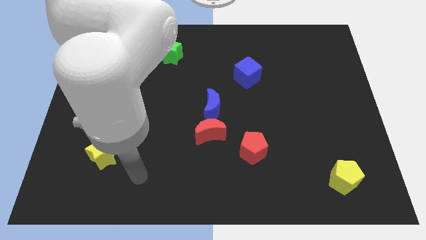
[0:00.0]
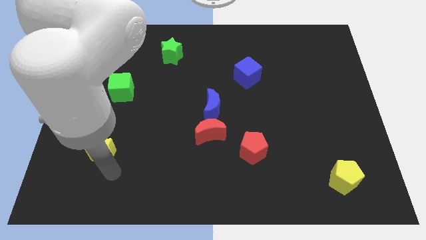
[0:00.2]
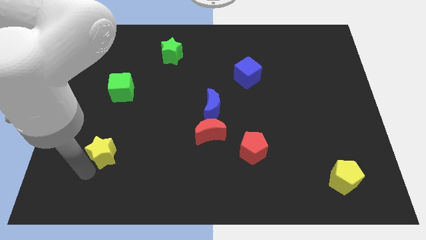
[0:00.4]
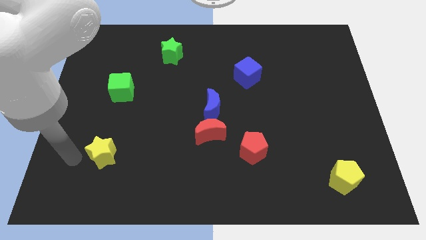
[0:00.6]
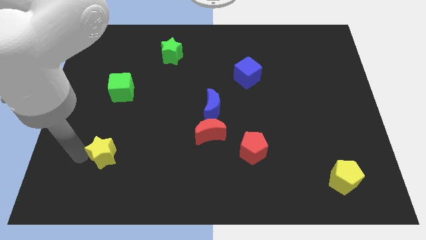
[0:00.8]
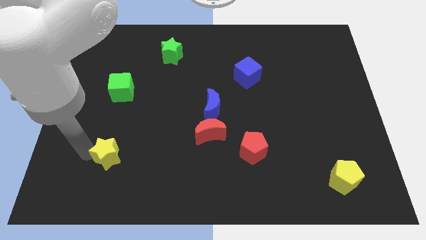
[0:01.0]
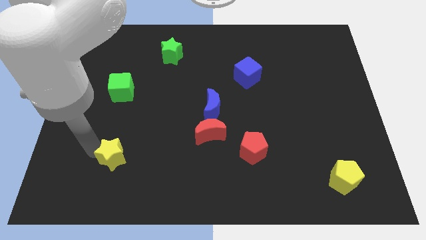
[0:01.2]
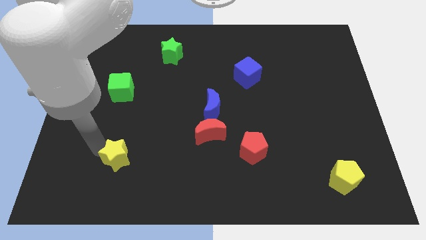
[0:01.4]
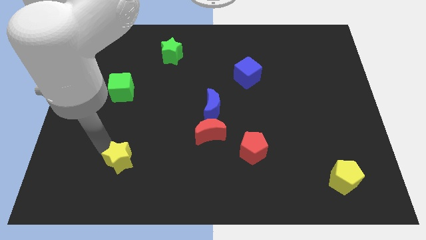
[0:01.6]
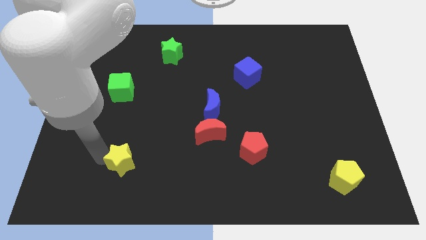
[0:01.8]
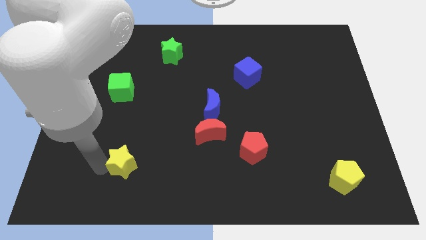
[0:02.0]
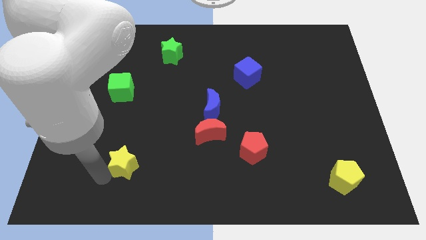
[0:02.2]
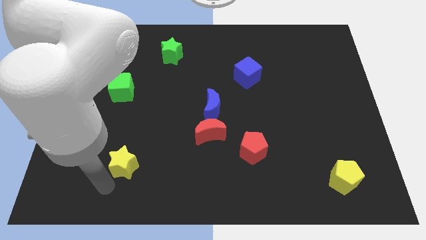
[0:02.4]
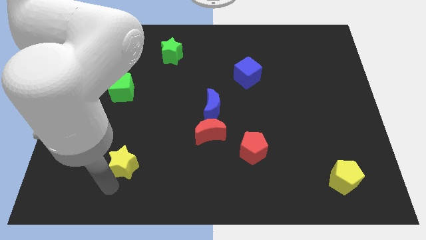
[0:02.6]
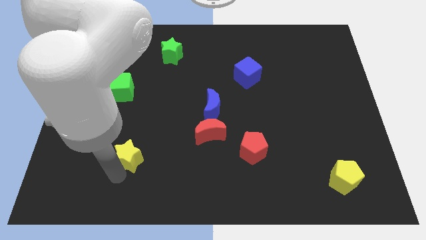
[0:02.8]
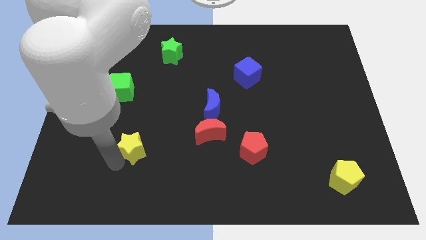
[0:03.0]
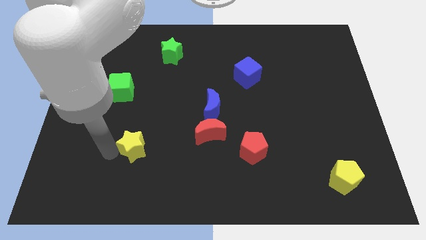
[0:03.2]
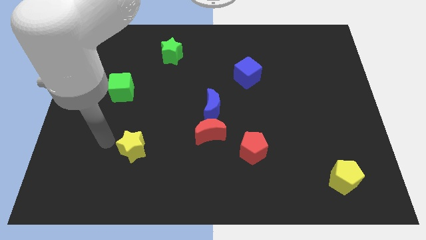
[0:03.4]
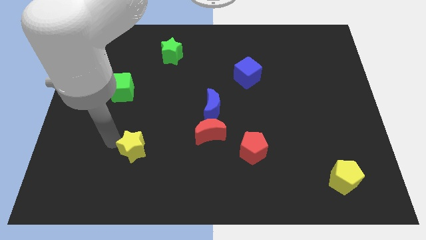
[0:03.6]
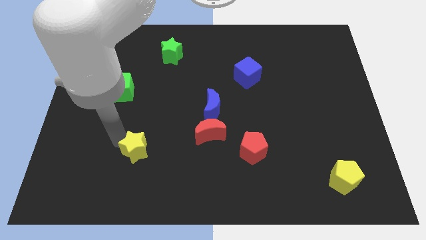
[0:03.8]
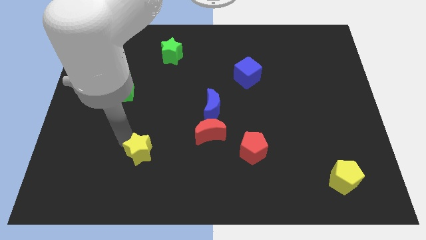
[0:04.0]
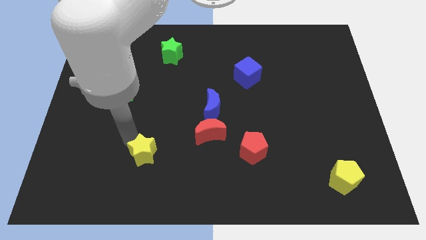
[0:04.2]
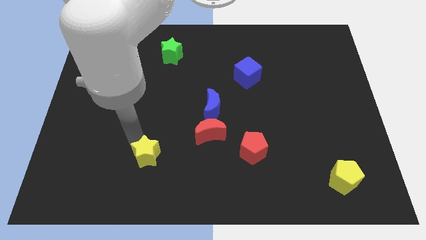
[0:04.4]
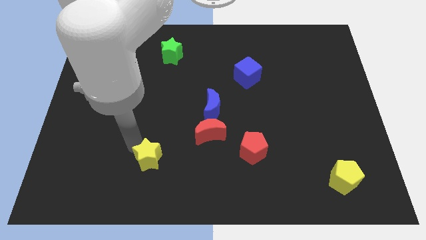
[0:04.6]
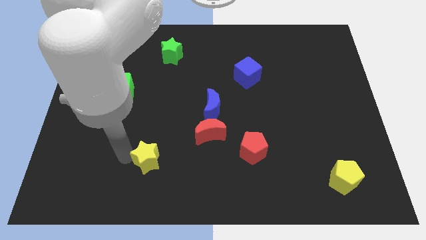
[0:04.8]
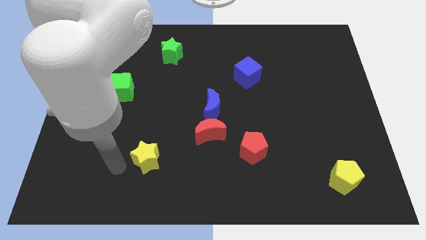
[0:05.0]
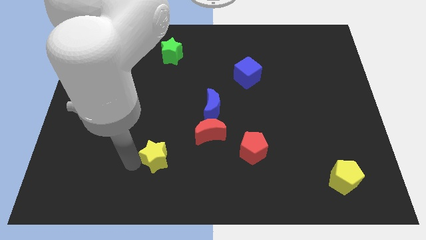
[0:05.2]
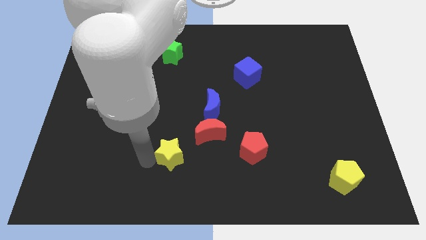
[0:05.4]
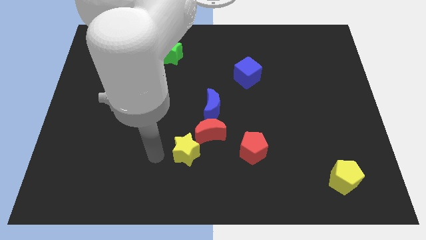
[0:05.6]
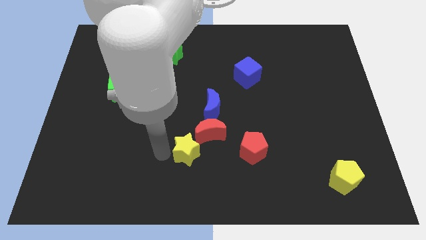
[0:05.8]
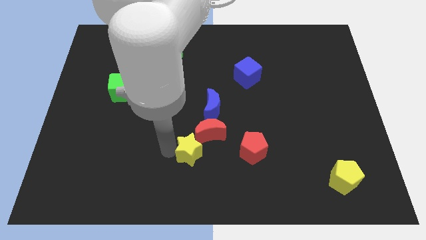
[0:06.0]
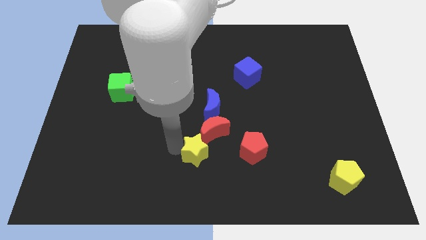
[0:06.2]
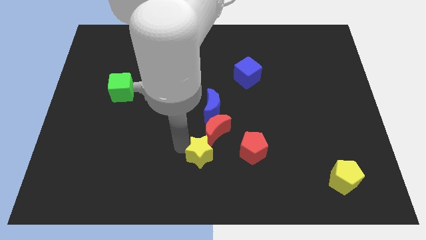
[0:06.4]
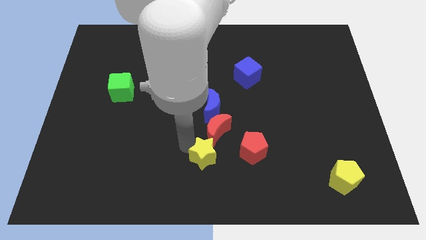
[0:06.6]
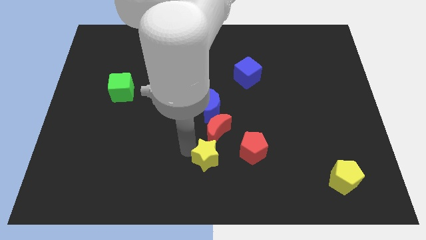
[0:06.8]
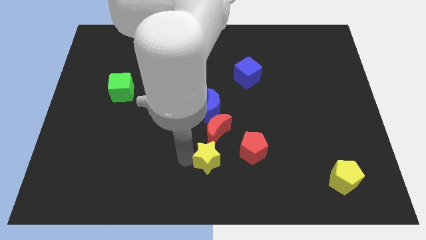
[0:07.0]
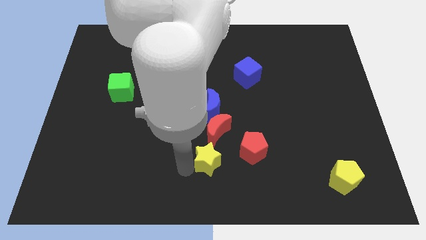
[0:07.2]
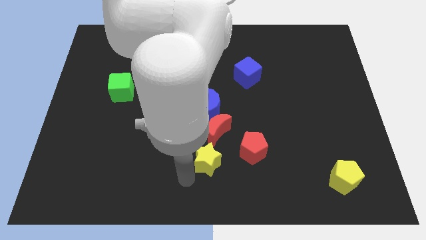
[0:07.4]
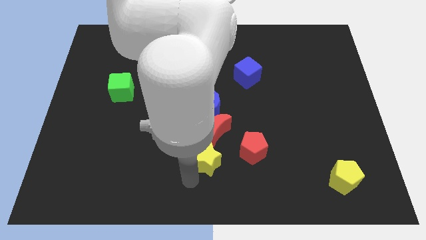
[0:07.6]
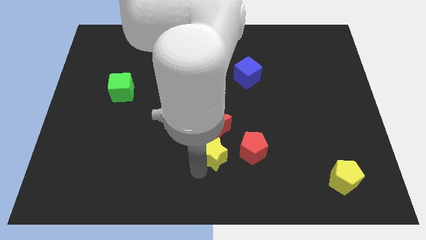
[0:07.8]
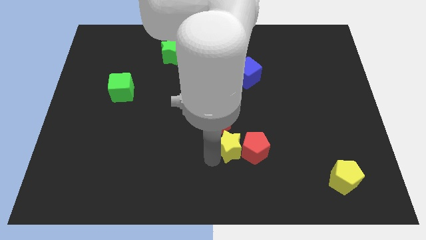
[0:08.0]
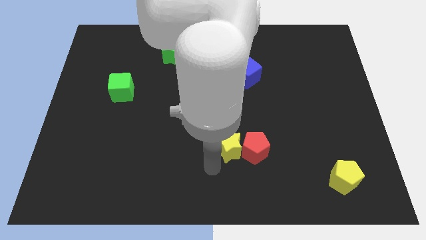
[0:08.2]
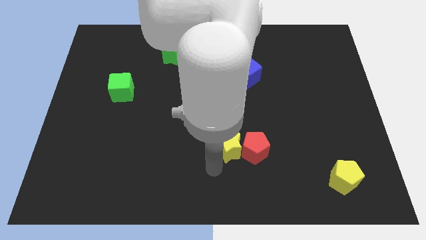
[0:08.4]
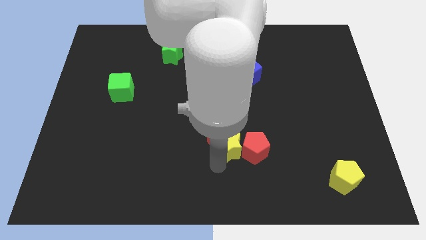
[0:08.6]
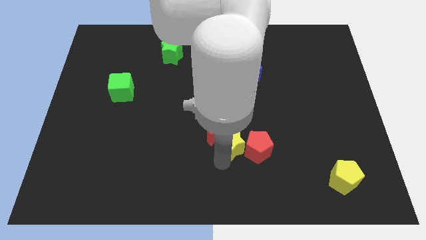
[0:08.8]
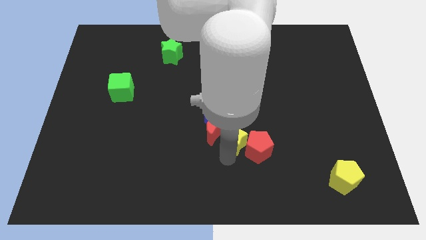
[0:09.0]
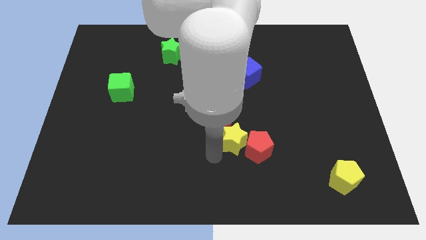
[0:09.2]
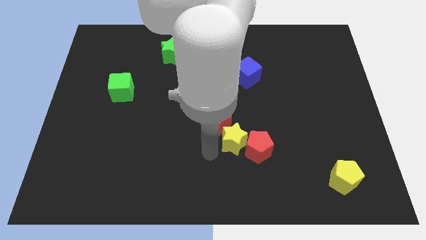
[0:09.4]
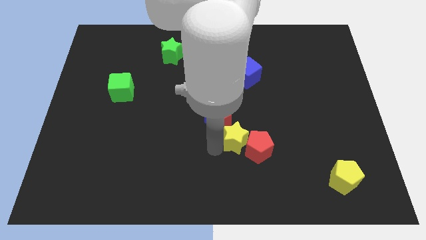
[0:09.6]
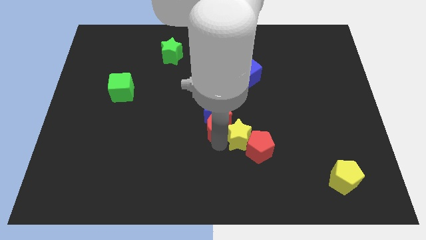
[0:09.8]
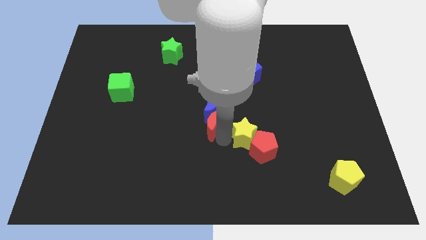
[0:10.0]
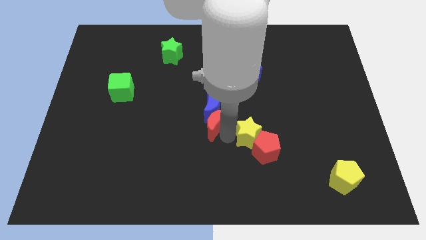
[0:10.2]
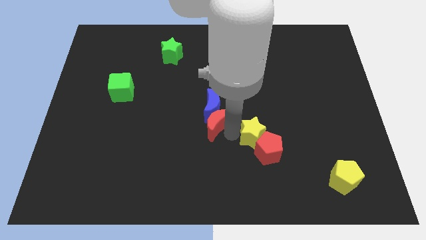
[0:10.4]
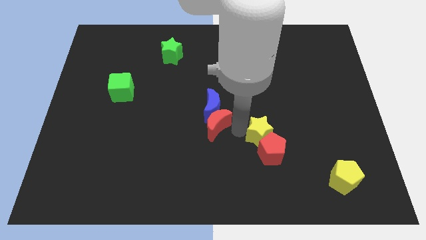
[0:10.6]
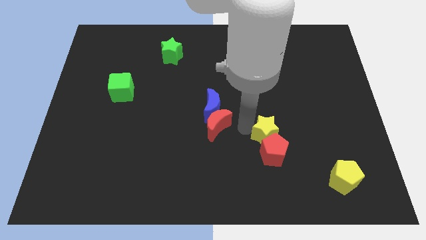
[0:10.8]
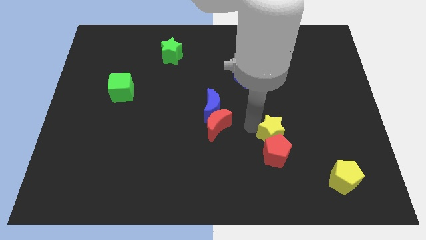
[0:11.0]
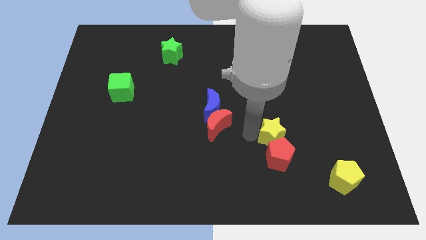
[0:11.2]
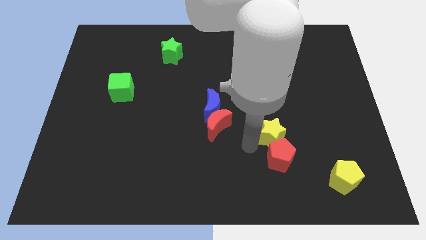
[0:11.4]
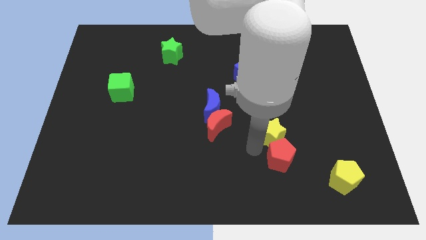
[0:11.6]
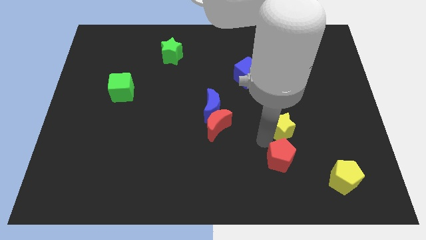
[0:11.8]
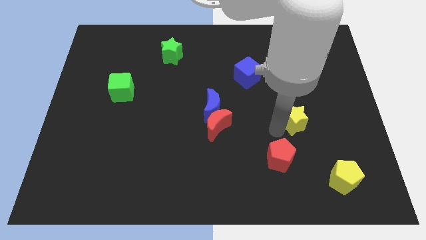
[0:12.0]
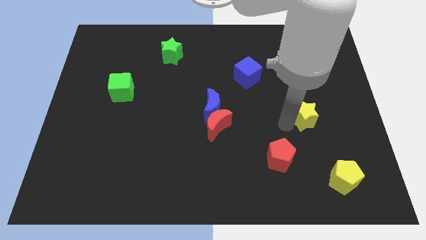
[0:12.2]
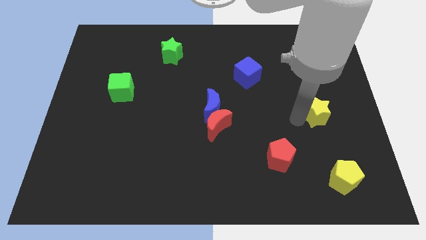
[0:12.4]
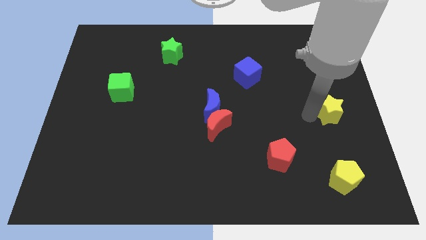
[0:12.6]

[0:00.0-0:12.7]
push the yellow star to the right side of the board

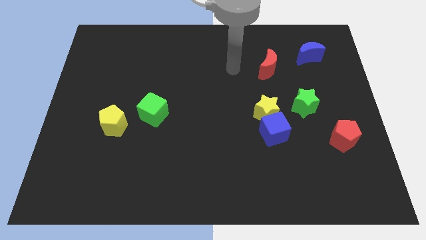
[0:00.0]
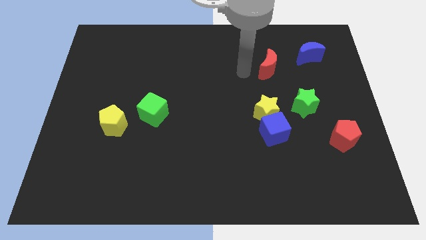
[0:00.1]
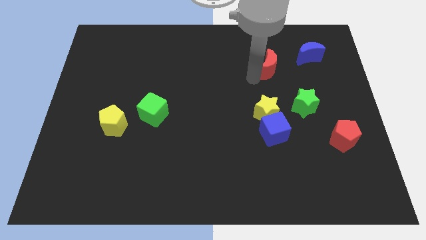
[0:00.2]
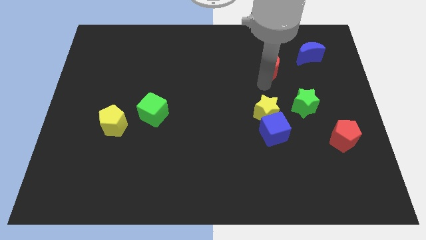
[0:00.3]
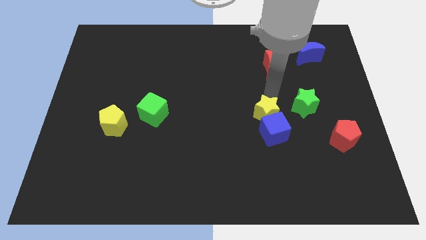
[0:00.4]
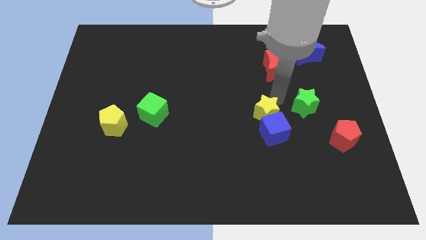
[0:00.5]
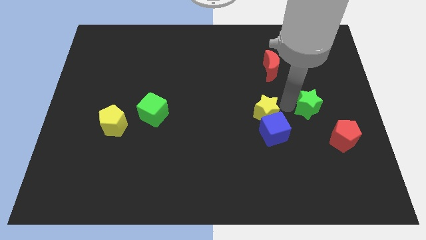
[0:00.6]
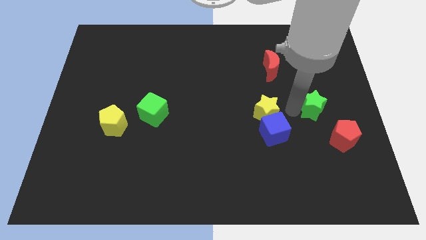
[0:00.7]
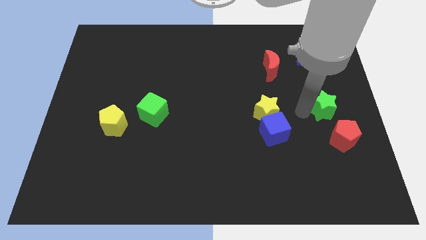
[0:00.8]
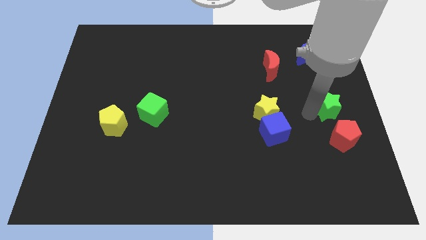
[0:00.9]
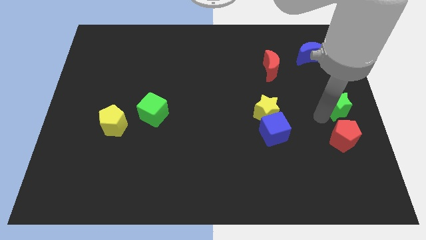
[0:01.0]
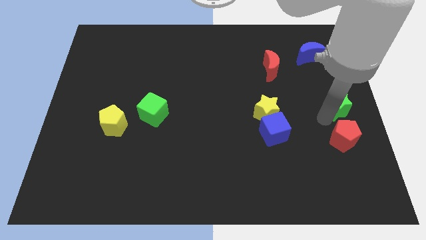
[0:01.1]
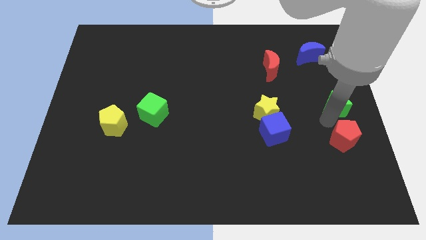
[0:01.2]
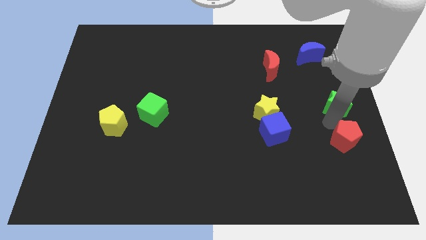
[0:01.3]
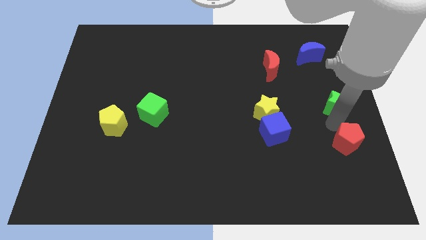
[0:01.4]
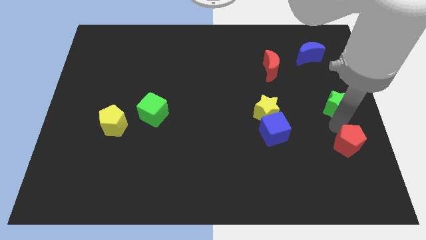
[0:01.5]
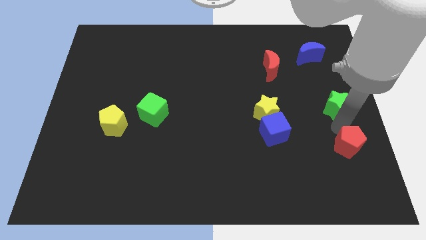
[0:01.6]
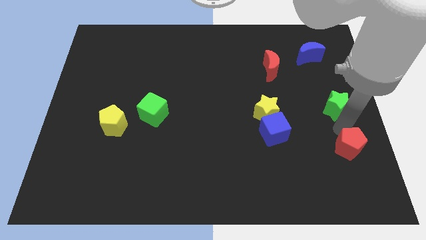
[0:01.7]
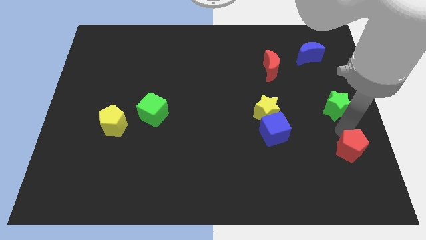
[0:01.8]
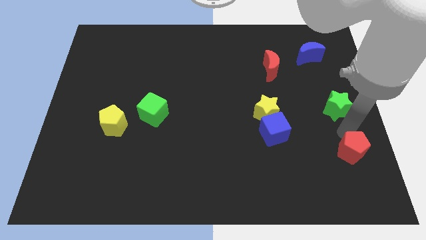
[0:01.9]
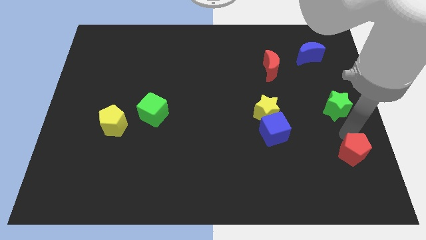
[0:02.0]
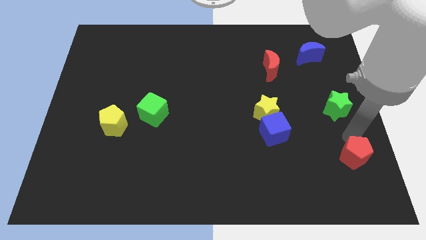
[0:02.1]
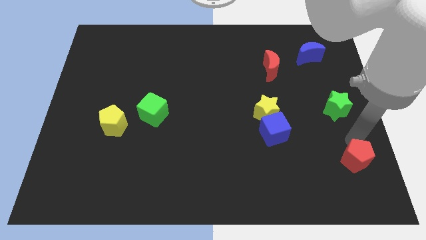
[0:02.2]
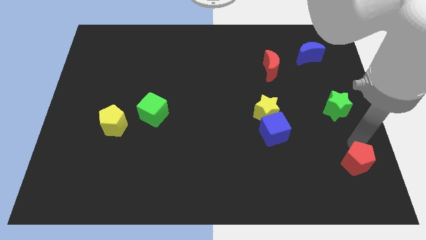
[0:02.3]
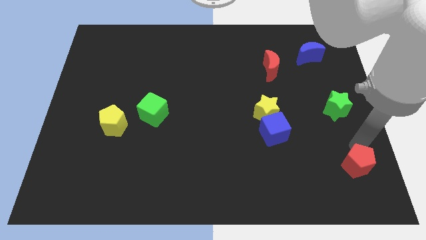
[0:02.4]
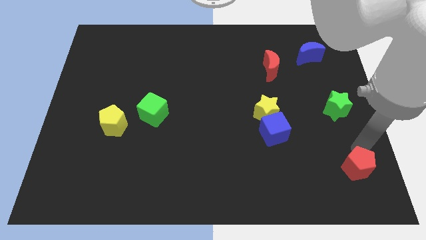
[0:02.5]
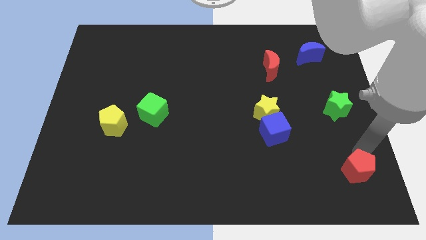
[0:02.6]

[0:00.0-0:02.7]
put the red pentagon to the bottom right corner
